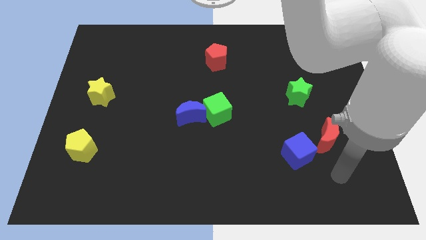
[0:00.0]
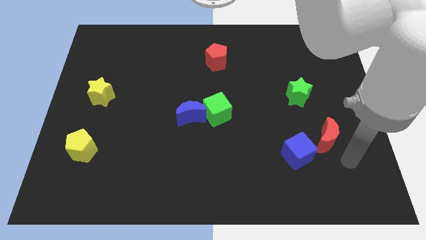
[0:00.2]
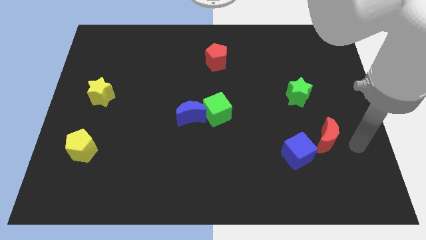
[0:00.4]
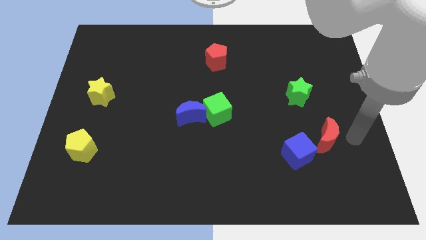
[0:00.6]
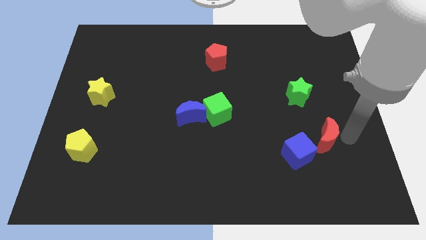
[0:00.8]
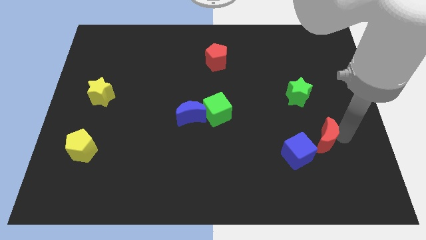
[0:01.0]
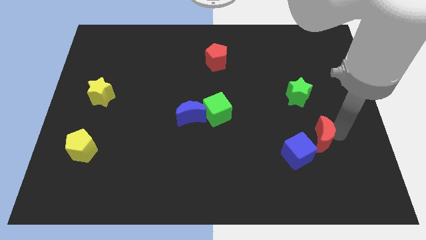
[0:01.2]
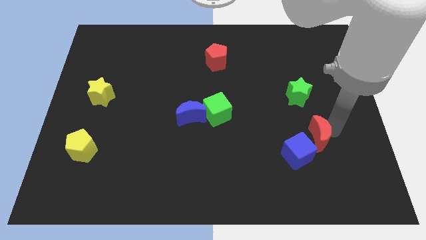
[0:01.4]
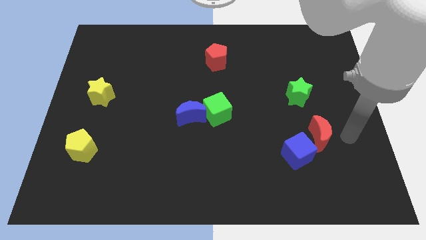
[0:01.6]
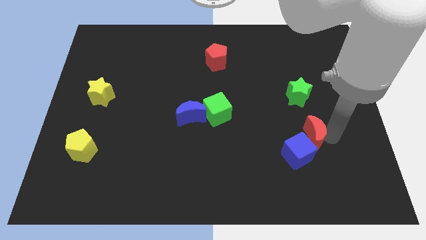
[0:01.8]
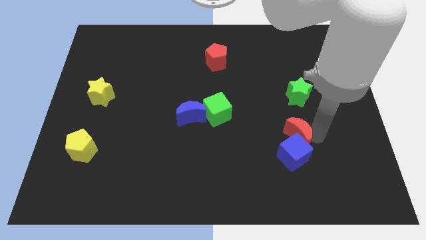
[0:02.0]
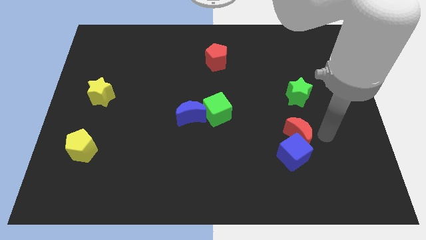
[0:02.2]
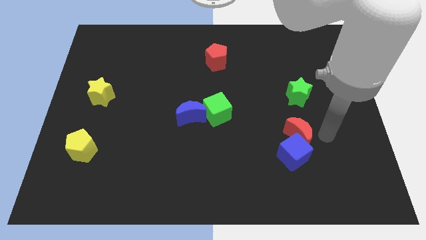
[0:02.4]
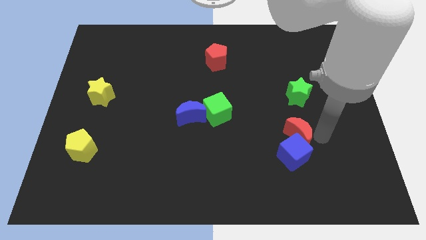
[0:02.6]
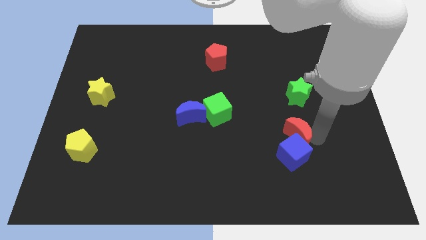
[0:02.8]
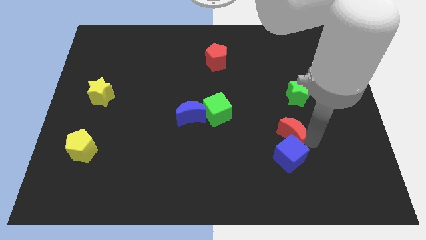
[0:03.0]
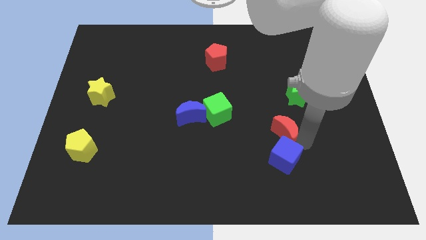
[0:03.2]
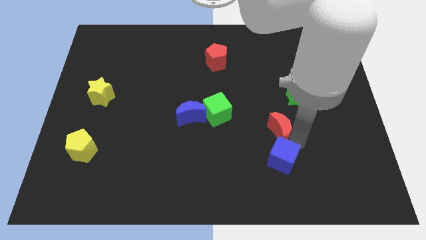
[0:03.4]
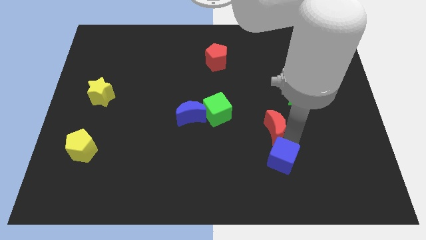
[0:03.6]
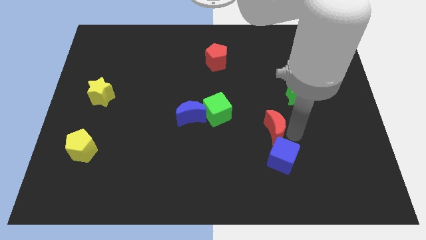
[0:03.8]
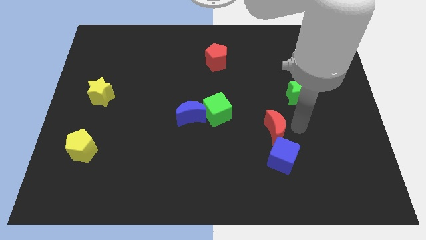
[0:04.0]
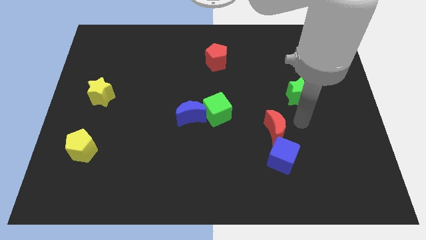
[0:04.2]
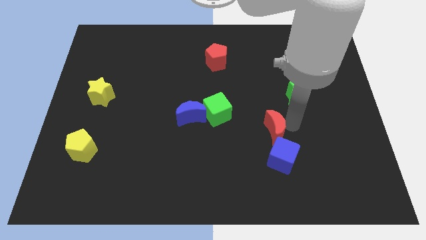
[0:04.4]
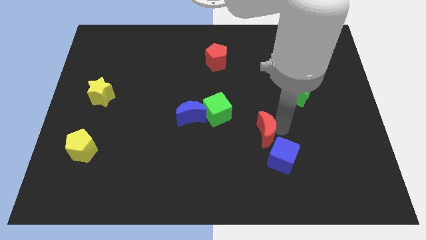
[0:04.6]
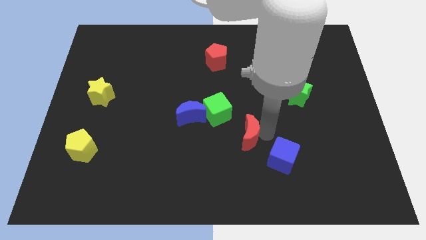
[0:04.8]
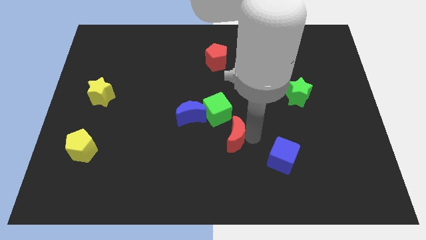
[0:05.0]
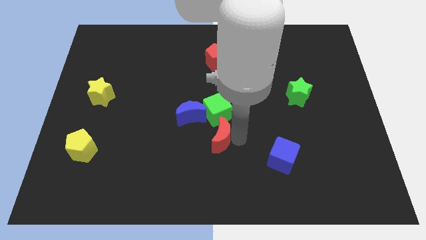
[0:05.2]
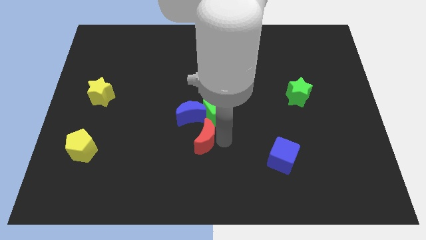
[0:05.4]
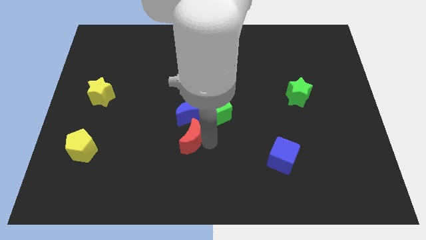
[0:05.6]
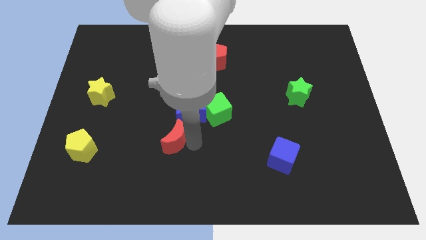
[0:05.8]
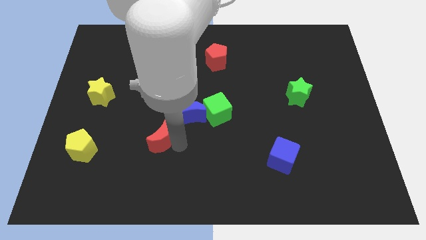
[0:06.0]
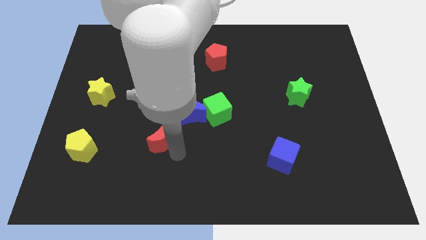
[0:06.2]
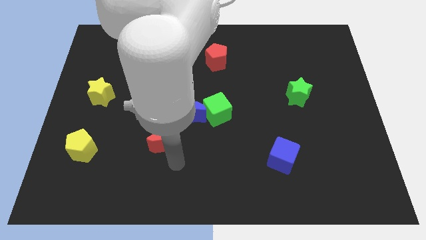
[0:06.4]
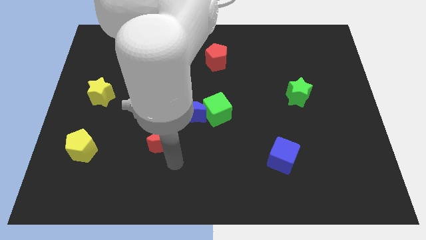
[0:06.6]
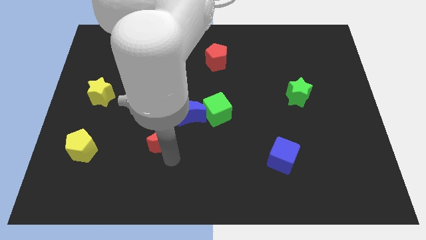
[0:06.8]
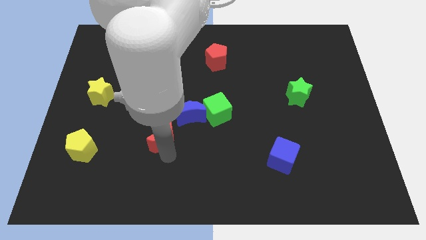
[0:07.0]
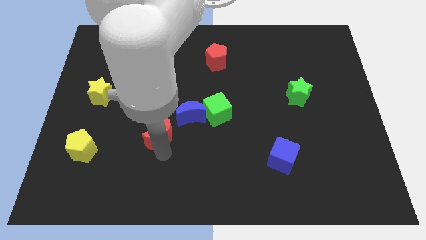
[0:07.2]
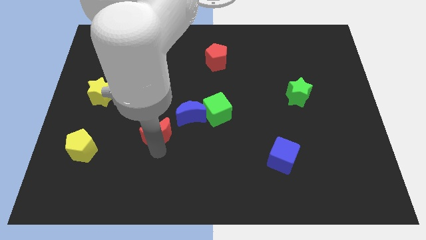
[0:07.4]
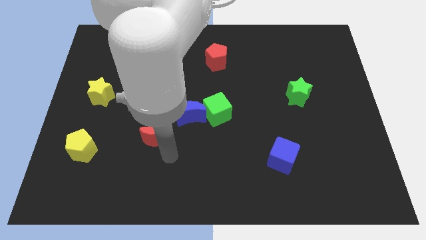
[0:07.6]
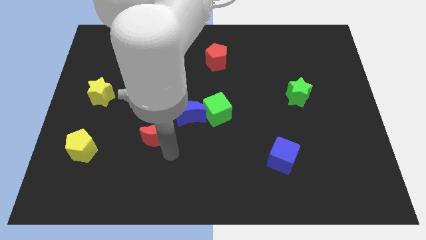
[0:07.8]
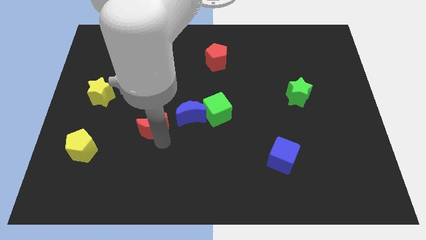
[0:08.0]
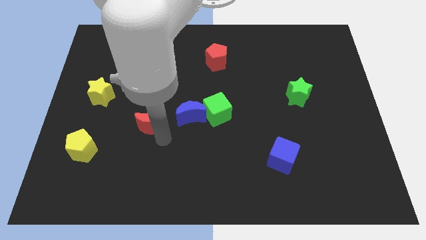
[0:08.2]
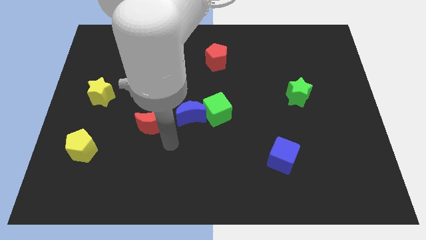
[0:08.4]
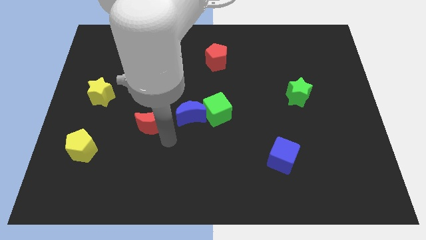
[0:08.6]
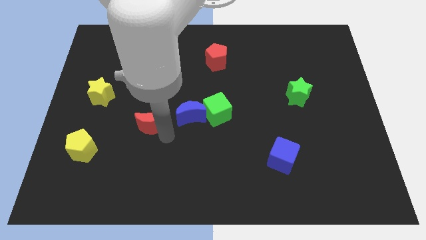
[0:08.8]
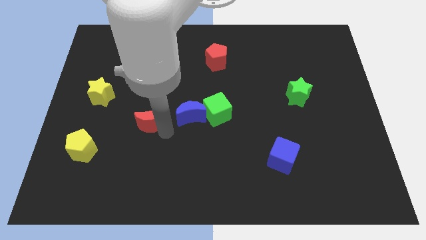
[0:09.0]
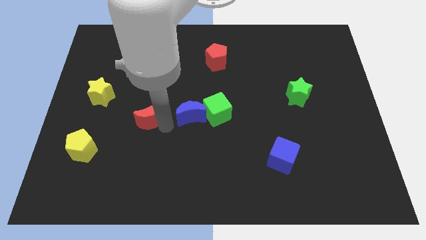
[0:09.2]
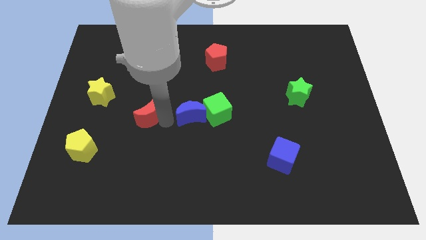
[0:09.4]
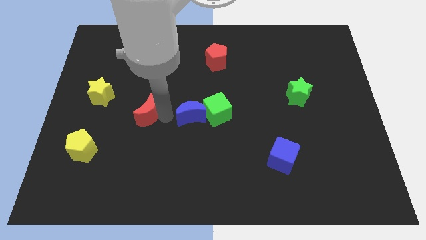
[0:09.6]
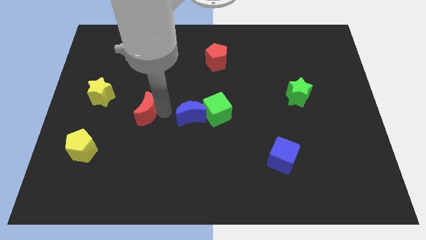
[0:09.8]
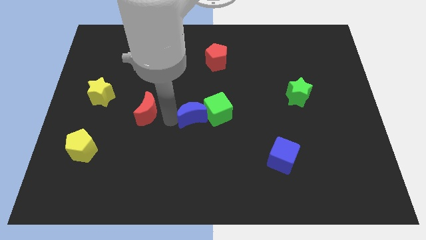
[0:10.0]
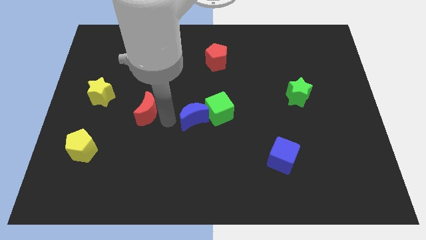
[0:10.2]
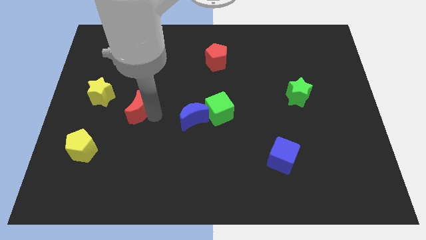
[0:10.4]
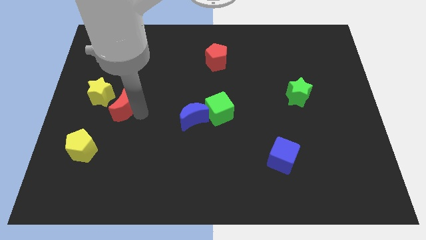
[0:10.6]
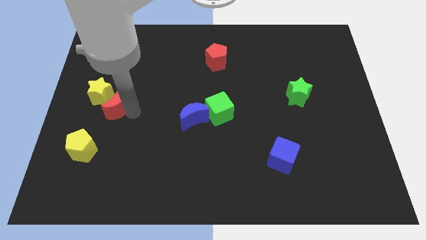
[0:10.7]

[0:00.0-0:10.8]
put the red moon next to the yellow star

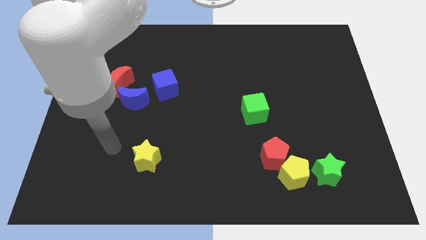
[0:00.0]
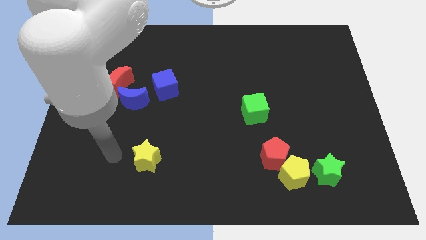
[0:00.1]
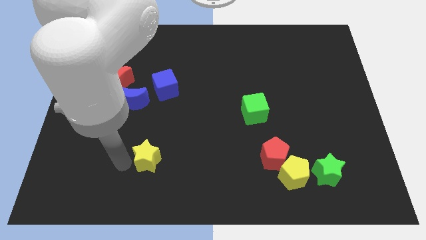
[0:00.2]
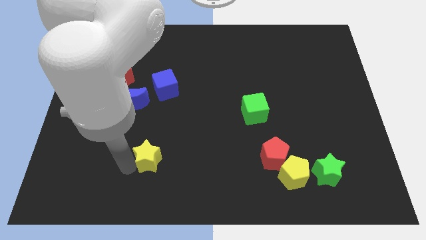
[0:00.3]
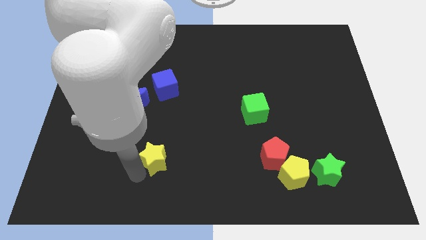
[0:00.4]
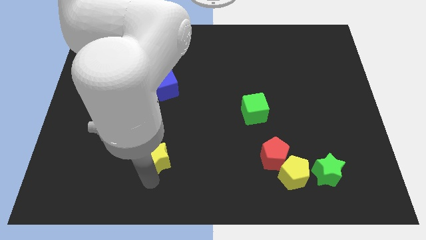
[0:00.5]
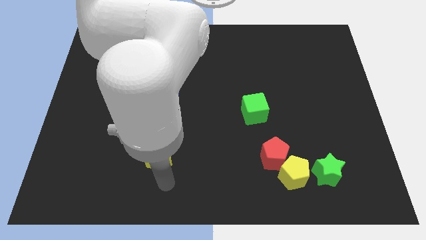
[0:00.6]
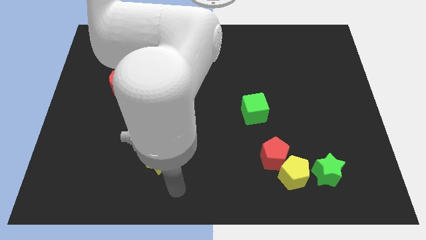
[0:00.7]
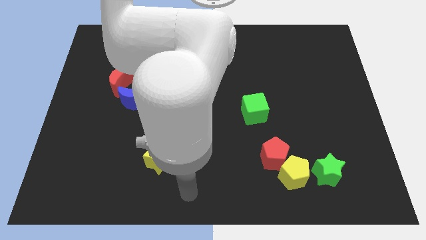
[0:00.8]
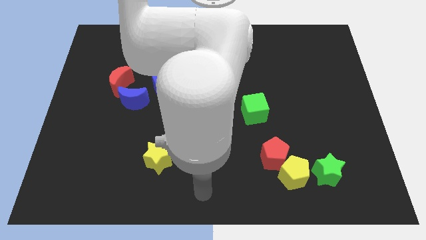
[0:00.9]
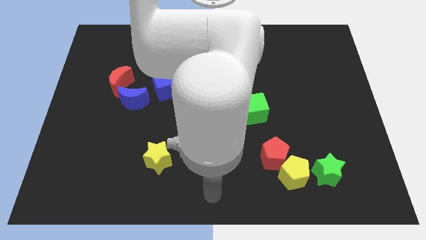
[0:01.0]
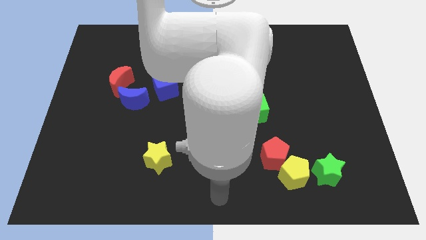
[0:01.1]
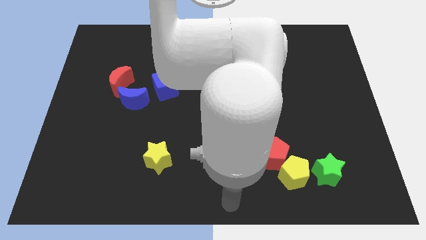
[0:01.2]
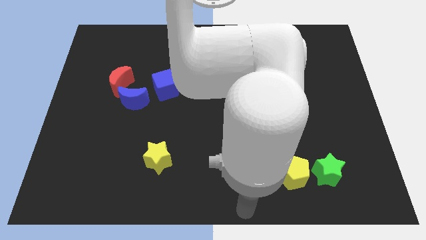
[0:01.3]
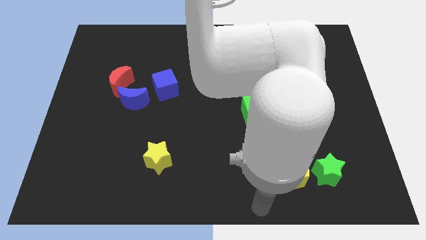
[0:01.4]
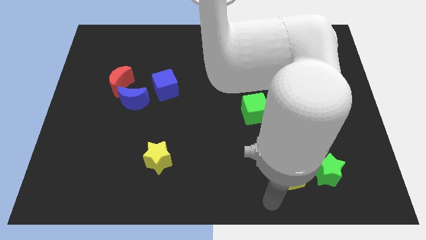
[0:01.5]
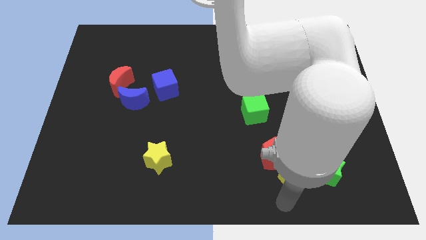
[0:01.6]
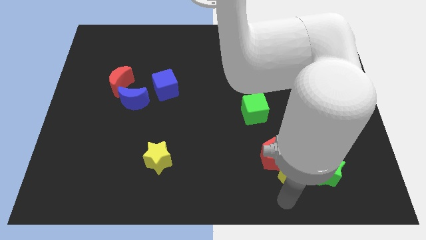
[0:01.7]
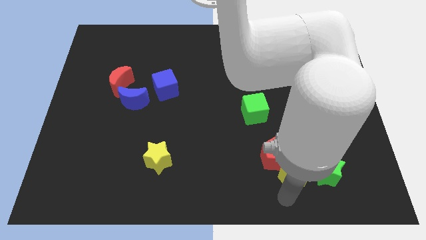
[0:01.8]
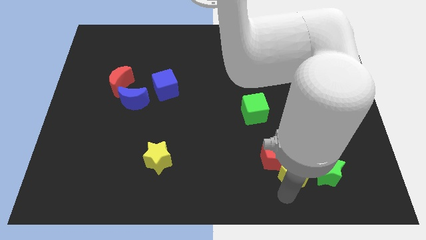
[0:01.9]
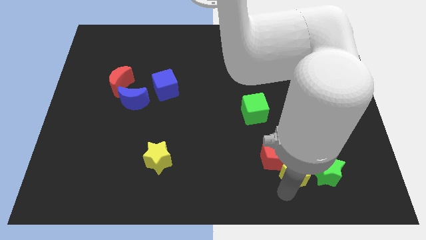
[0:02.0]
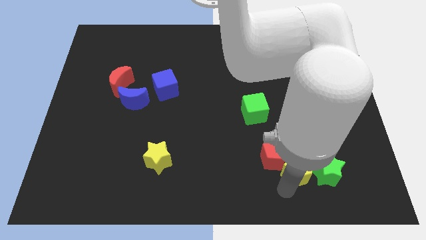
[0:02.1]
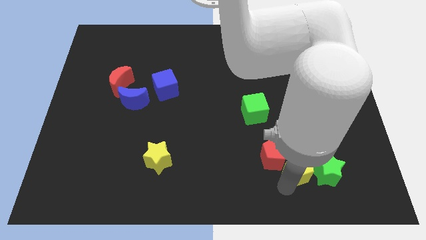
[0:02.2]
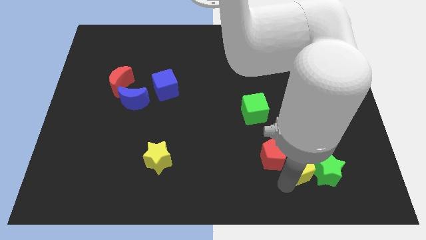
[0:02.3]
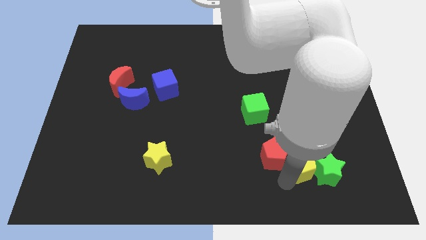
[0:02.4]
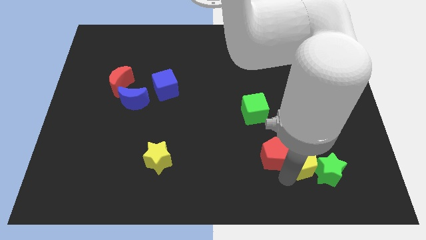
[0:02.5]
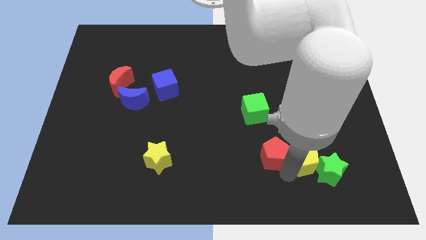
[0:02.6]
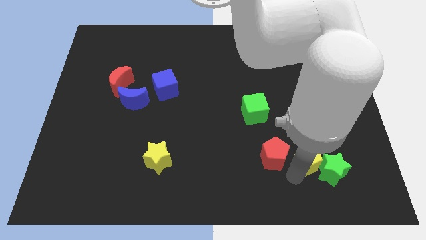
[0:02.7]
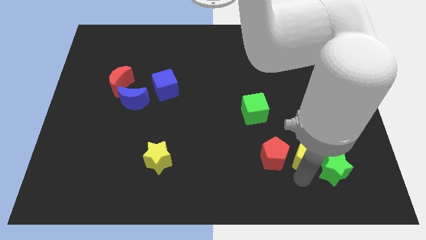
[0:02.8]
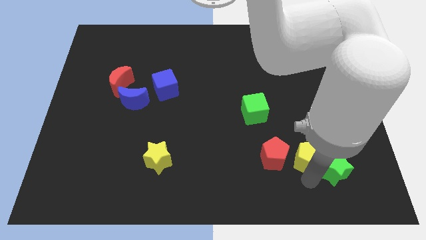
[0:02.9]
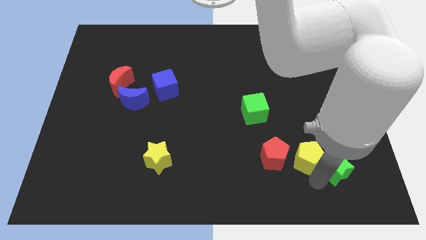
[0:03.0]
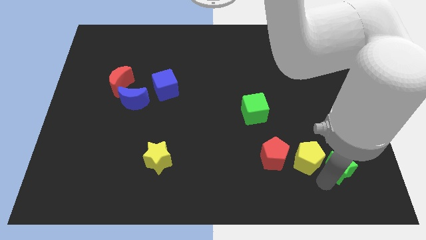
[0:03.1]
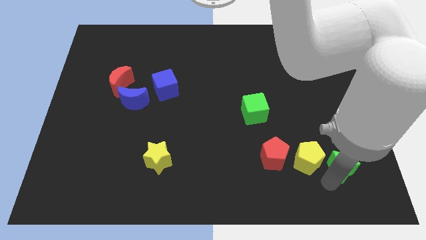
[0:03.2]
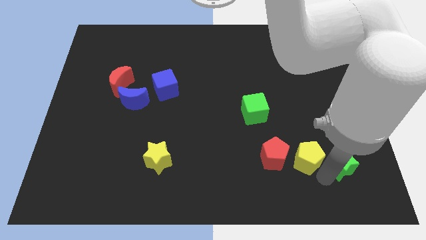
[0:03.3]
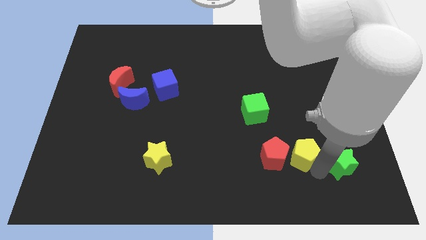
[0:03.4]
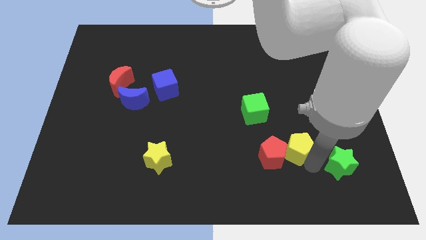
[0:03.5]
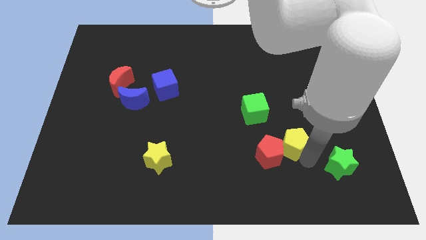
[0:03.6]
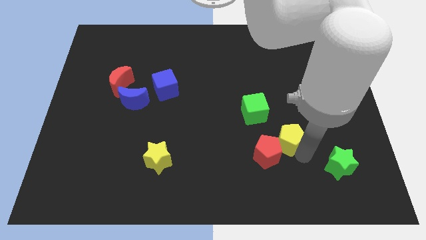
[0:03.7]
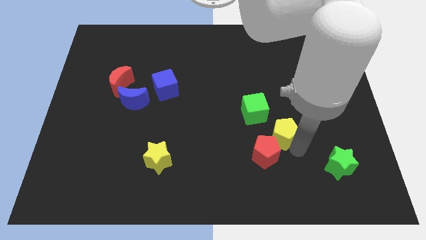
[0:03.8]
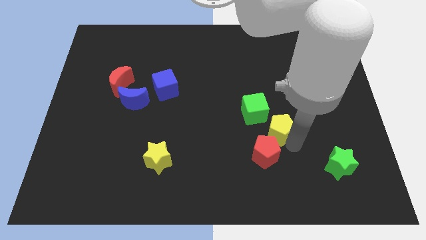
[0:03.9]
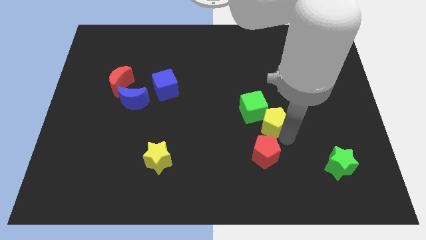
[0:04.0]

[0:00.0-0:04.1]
slide the yellow pentagon next to the green cube
